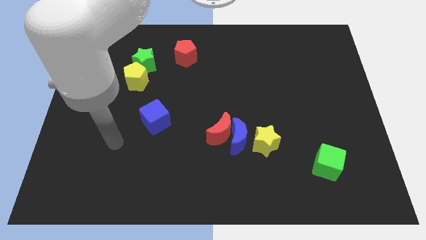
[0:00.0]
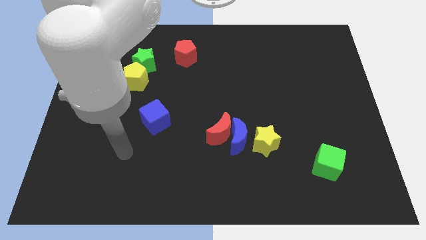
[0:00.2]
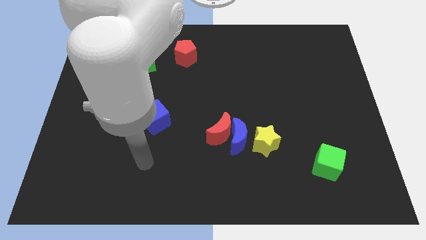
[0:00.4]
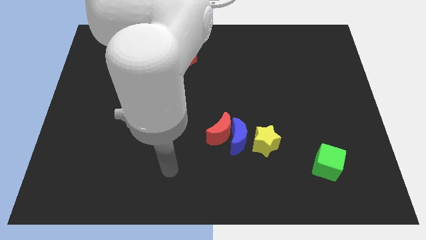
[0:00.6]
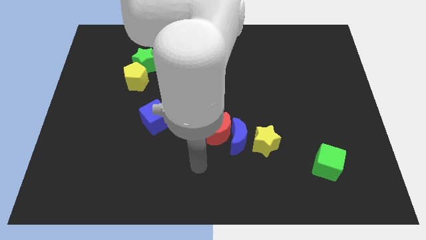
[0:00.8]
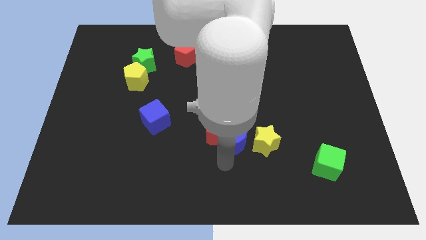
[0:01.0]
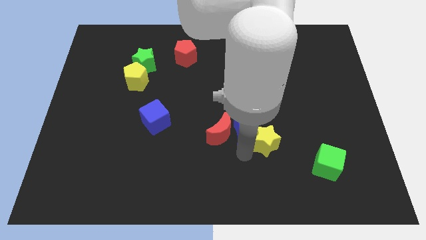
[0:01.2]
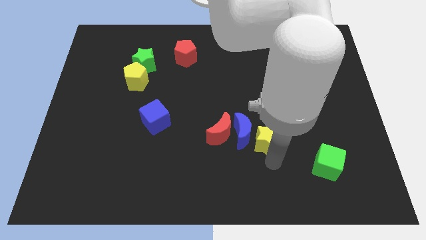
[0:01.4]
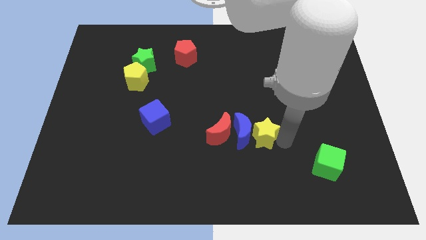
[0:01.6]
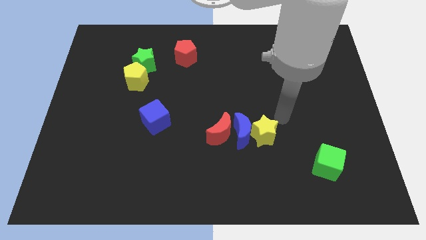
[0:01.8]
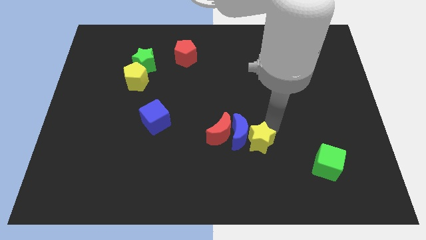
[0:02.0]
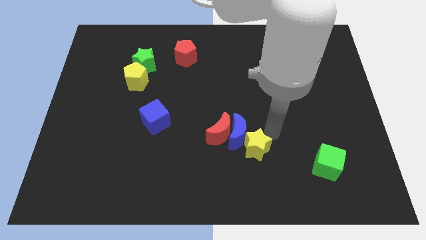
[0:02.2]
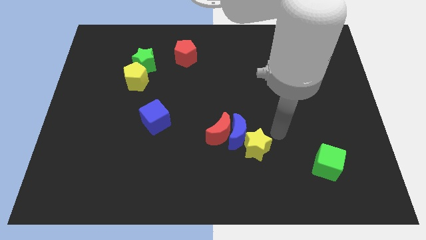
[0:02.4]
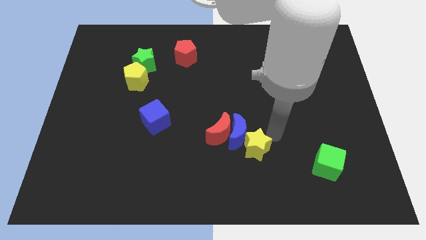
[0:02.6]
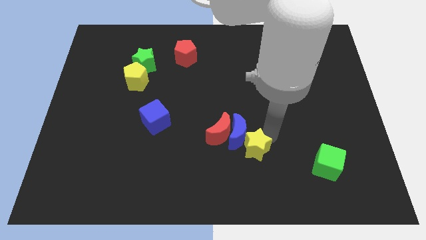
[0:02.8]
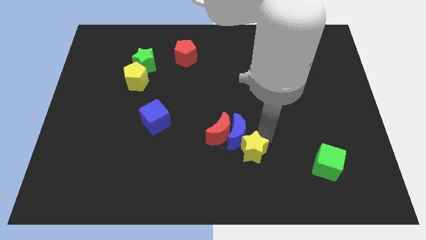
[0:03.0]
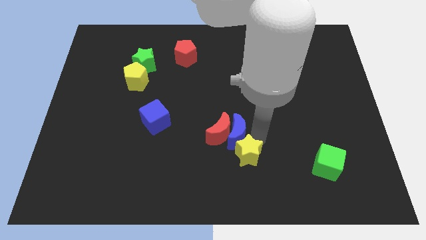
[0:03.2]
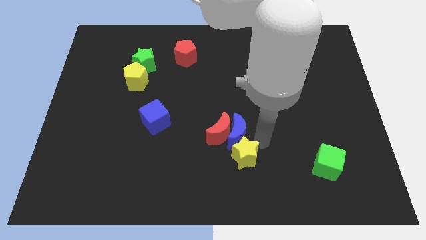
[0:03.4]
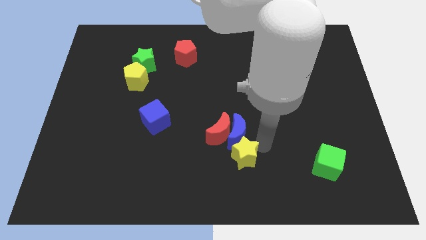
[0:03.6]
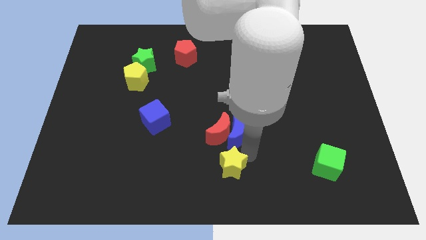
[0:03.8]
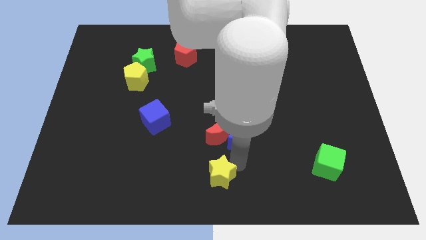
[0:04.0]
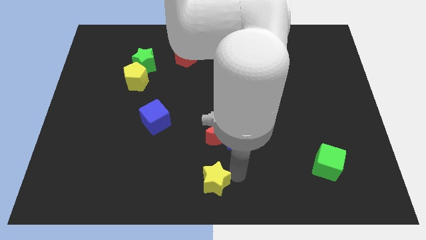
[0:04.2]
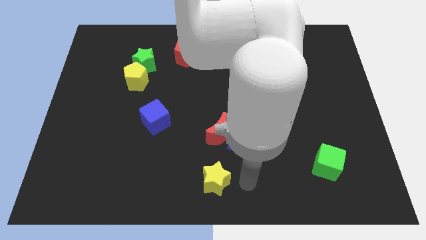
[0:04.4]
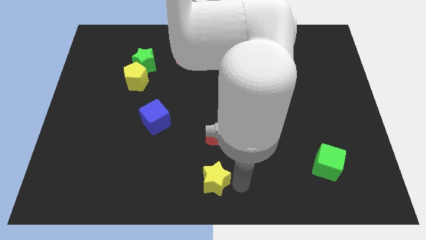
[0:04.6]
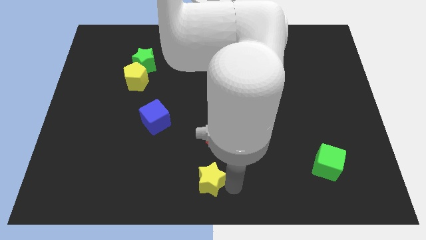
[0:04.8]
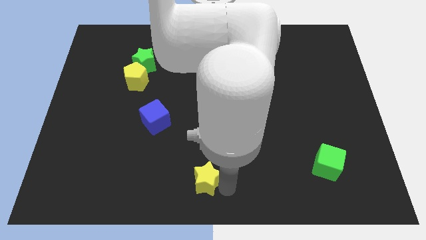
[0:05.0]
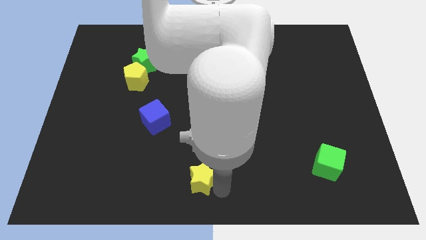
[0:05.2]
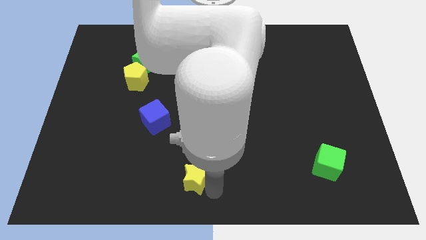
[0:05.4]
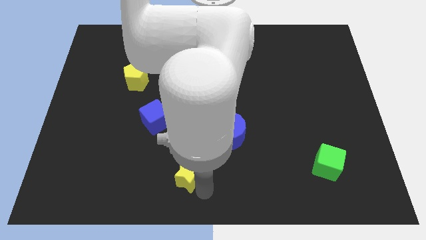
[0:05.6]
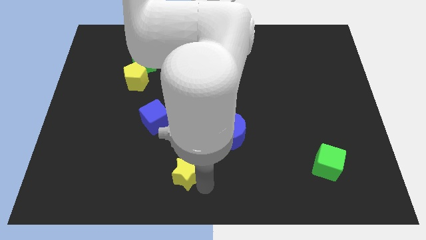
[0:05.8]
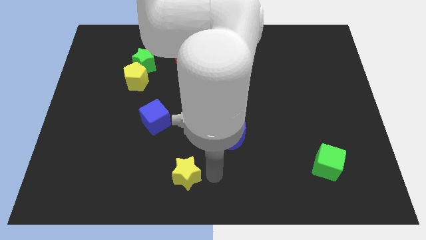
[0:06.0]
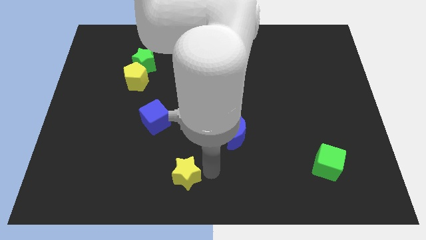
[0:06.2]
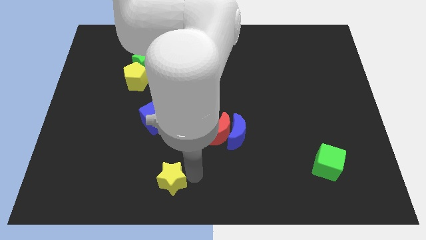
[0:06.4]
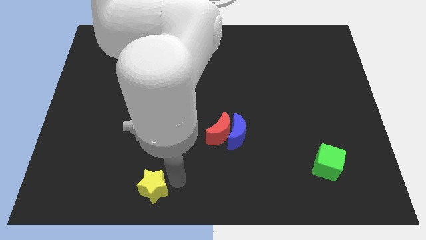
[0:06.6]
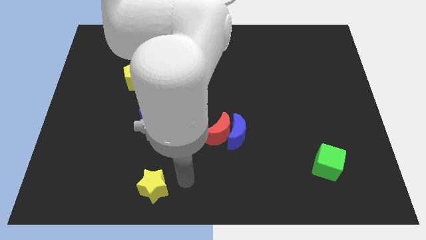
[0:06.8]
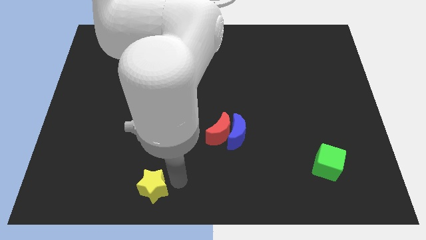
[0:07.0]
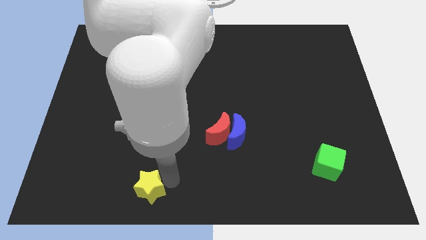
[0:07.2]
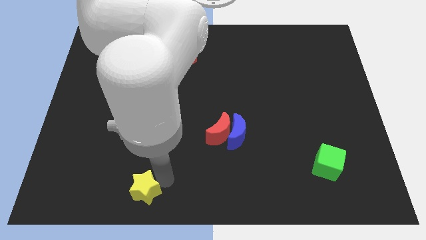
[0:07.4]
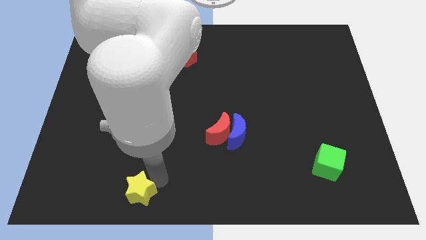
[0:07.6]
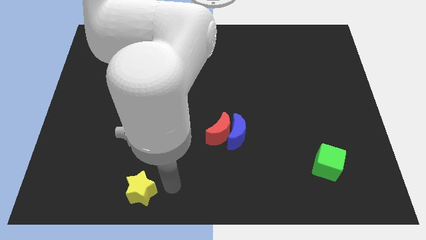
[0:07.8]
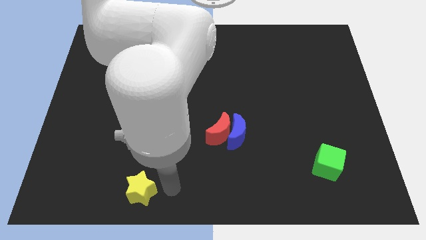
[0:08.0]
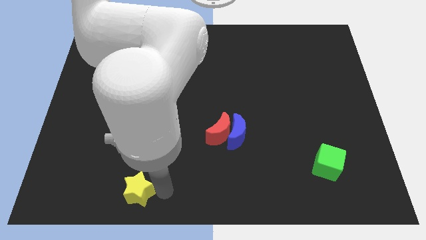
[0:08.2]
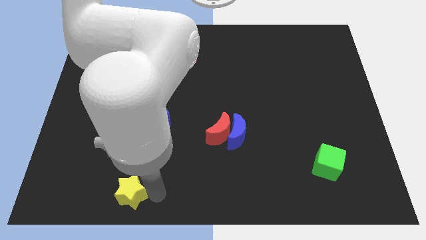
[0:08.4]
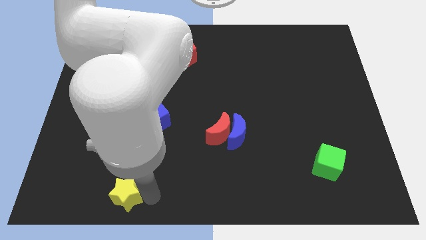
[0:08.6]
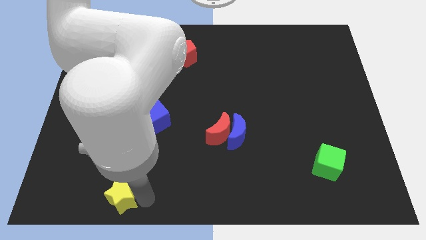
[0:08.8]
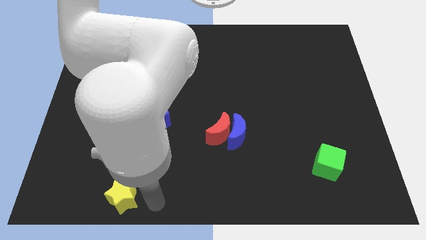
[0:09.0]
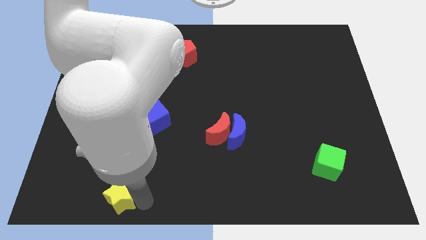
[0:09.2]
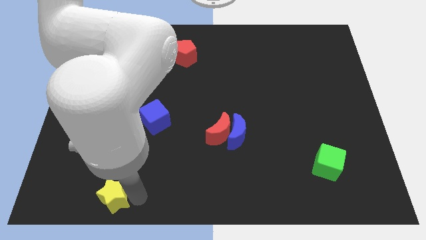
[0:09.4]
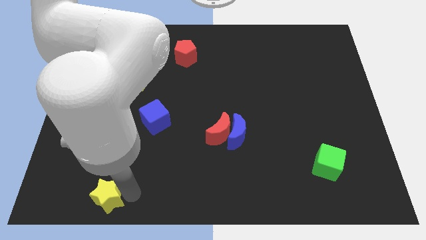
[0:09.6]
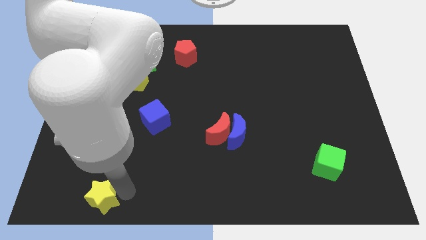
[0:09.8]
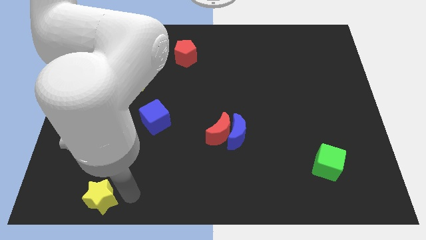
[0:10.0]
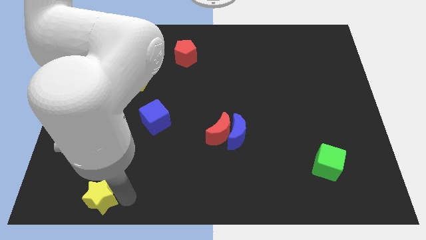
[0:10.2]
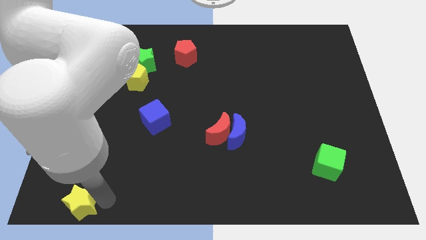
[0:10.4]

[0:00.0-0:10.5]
slide the yellow star to the bottom left corner

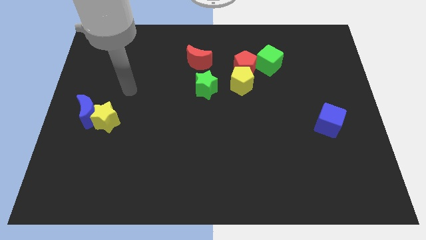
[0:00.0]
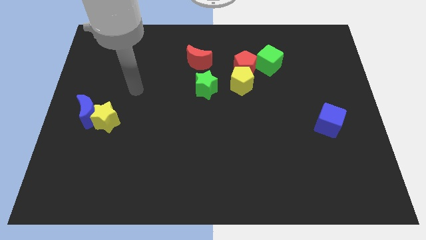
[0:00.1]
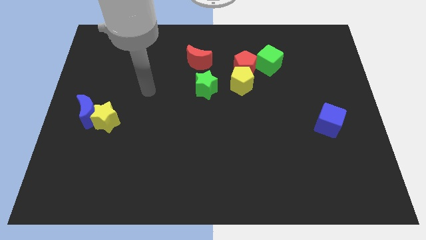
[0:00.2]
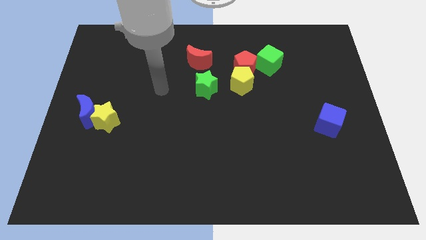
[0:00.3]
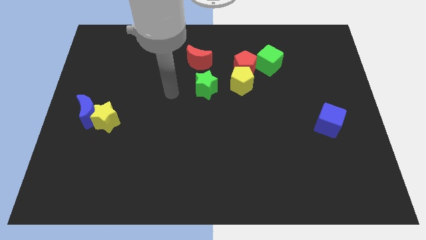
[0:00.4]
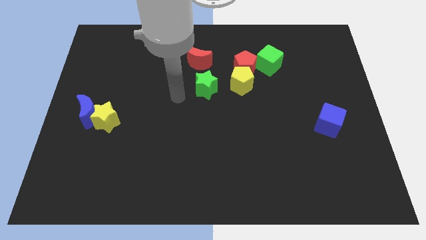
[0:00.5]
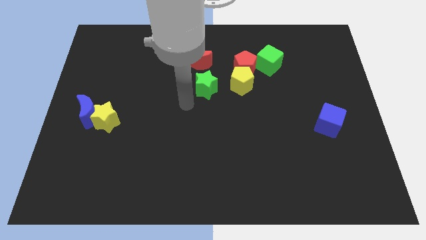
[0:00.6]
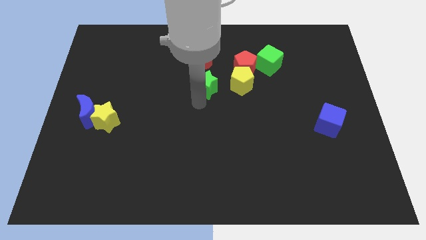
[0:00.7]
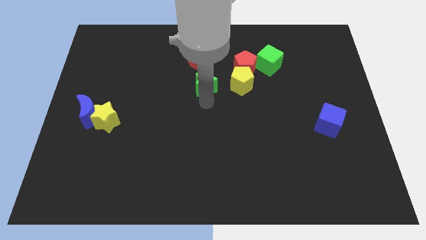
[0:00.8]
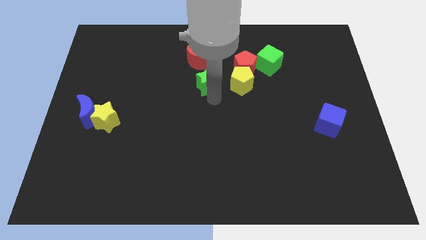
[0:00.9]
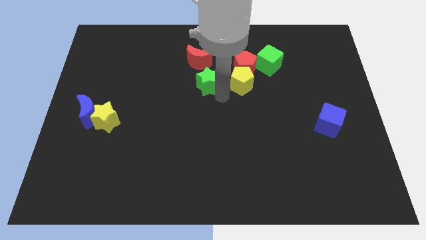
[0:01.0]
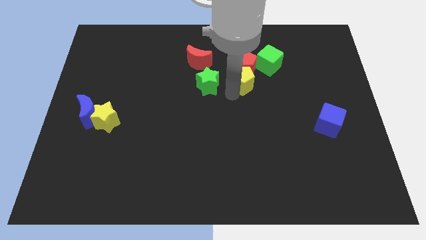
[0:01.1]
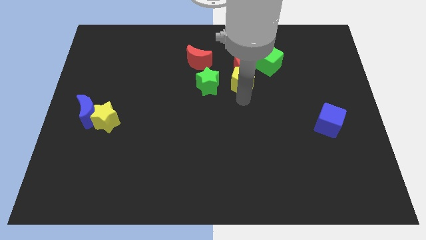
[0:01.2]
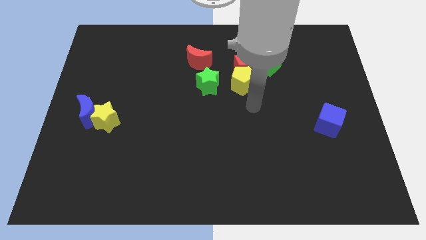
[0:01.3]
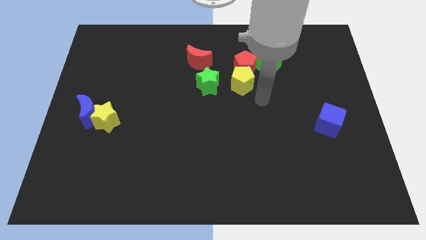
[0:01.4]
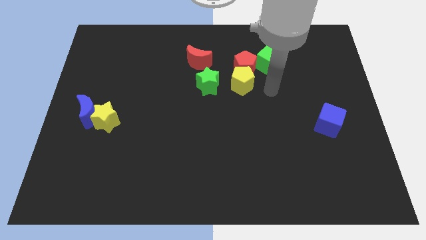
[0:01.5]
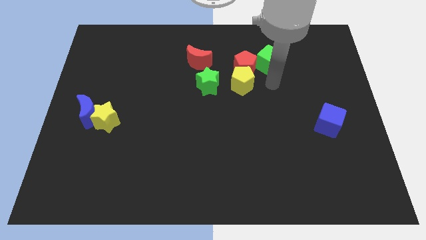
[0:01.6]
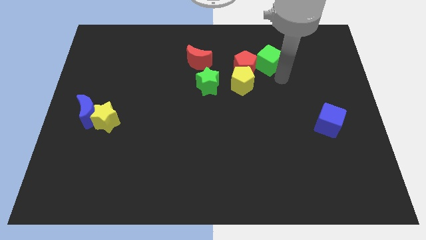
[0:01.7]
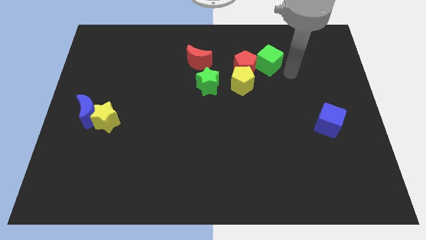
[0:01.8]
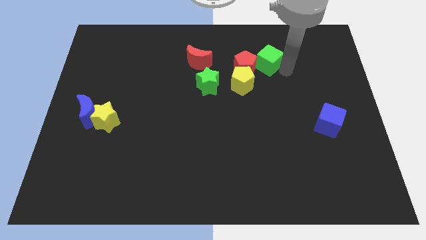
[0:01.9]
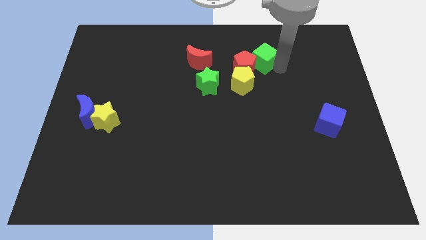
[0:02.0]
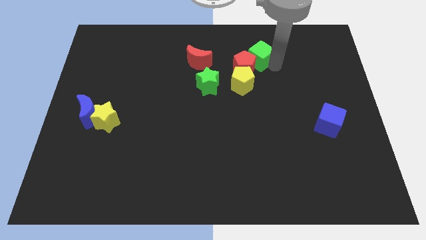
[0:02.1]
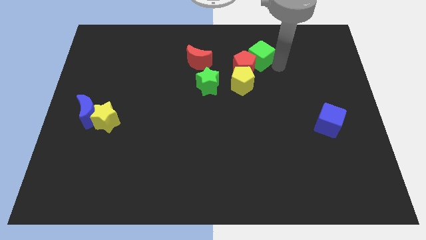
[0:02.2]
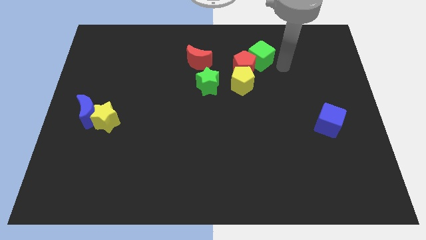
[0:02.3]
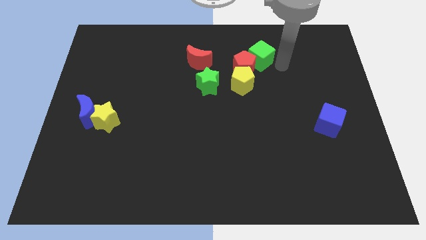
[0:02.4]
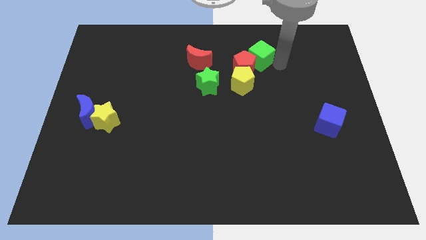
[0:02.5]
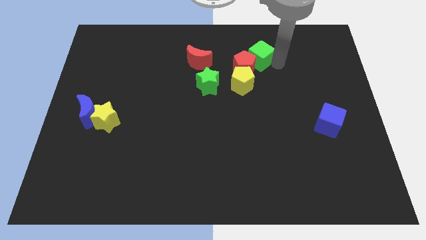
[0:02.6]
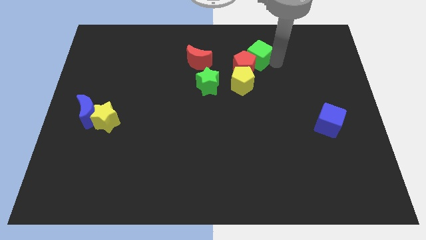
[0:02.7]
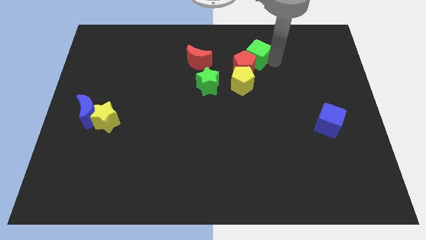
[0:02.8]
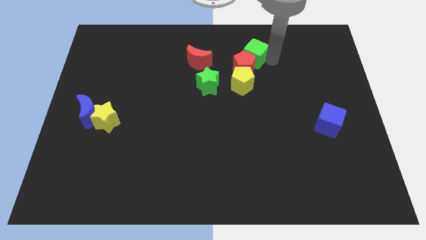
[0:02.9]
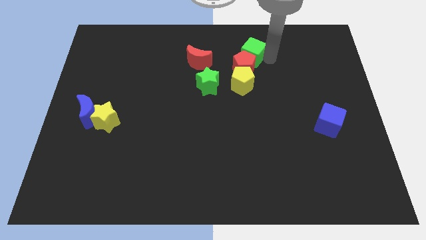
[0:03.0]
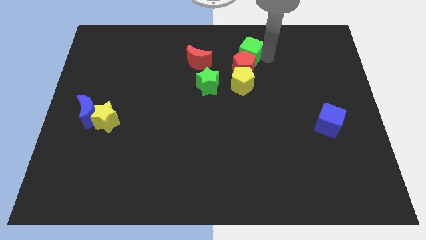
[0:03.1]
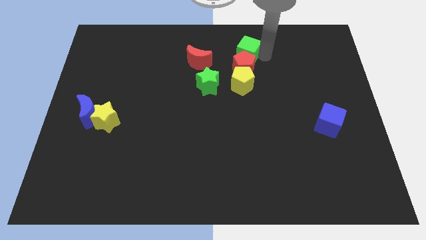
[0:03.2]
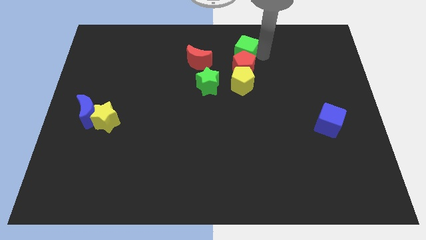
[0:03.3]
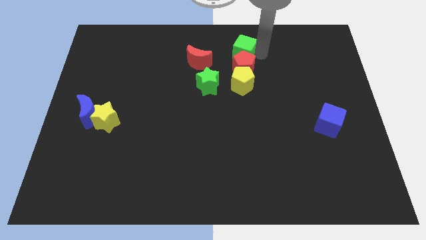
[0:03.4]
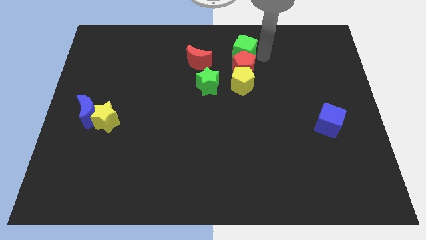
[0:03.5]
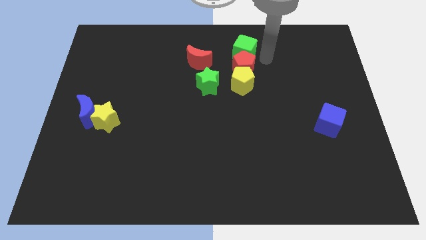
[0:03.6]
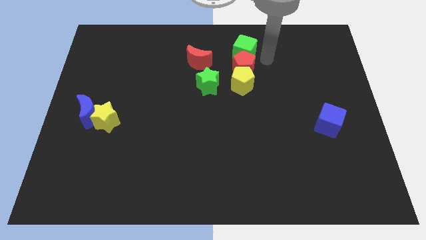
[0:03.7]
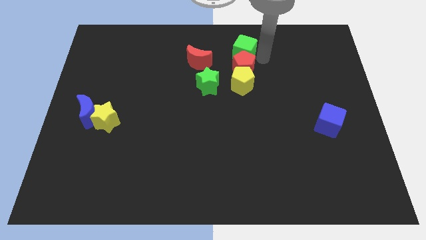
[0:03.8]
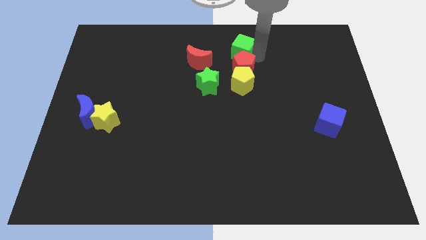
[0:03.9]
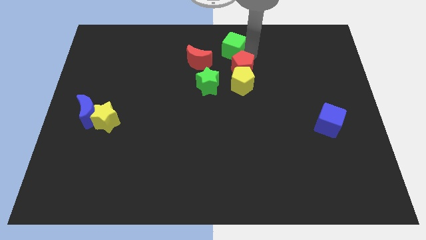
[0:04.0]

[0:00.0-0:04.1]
put the green cube to the top
